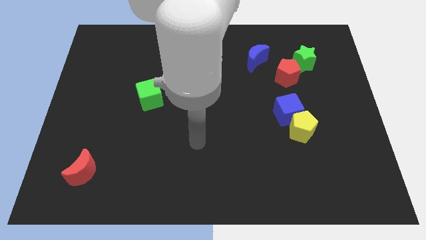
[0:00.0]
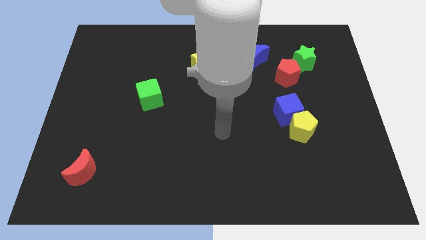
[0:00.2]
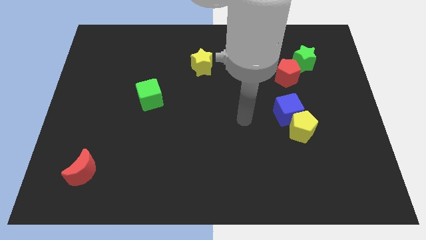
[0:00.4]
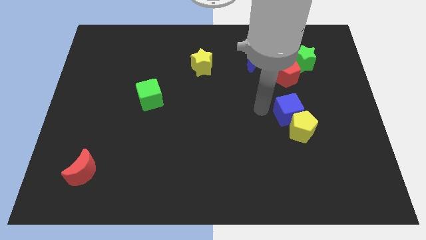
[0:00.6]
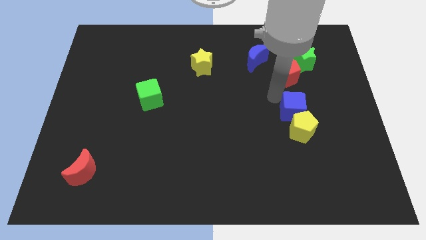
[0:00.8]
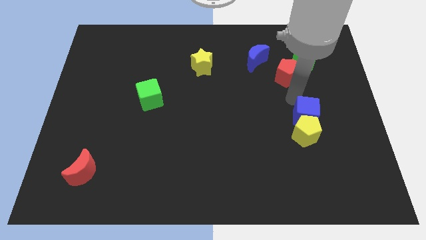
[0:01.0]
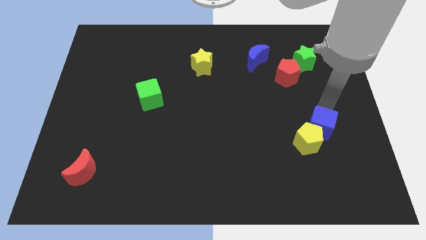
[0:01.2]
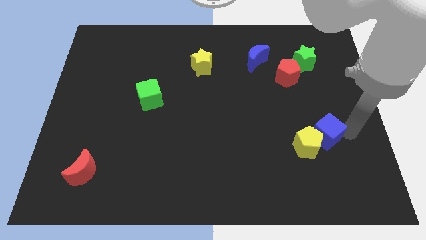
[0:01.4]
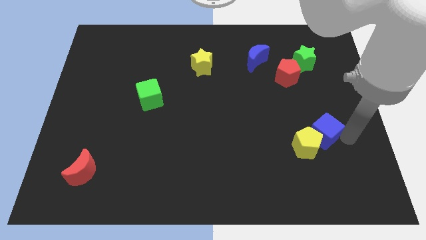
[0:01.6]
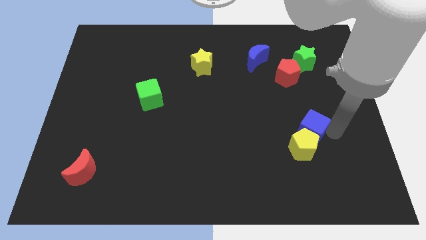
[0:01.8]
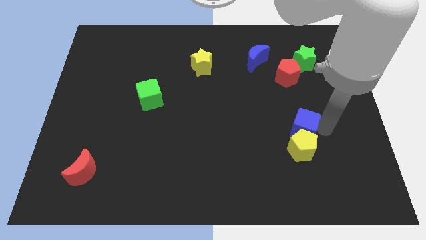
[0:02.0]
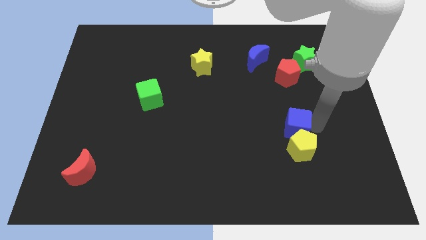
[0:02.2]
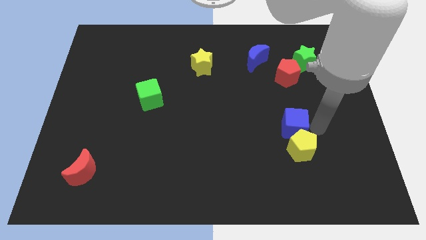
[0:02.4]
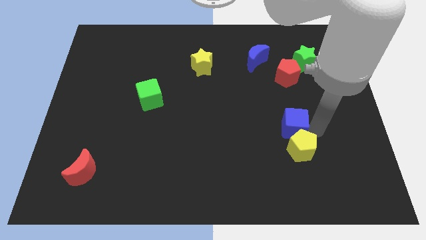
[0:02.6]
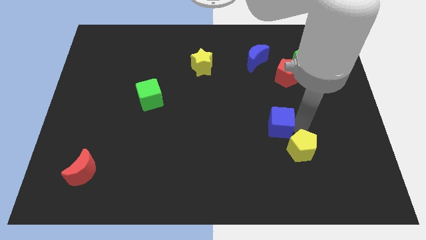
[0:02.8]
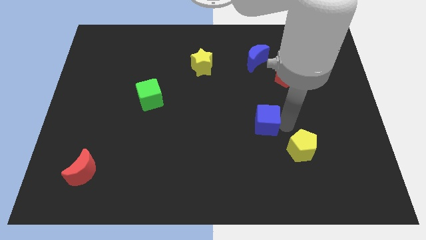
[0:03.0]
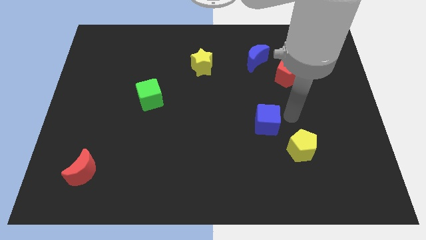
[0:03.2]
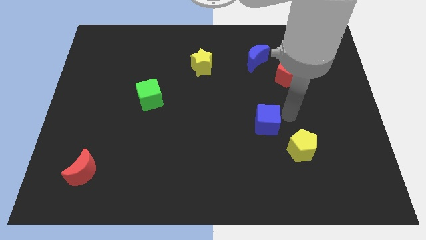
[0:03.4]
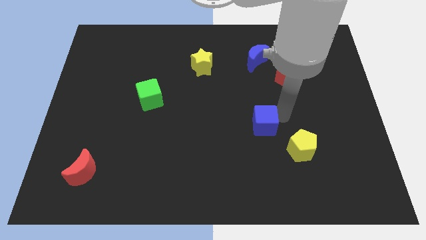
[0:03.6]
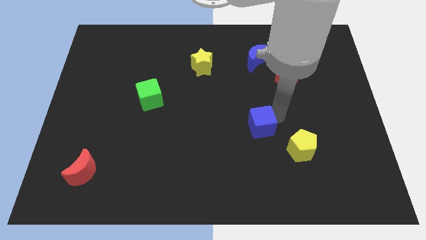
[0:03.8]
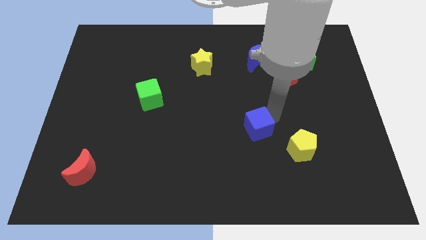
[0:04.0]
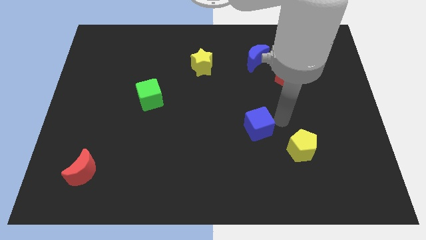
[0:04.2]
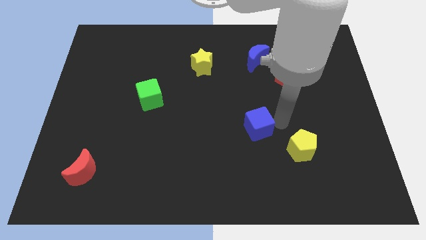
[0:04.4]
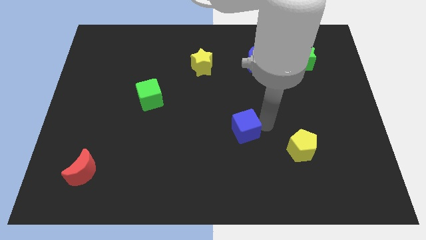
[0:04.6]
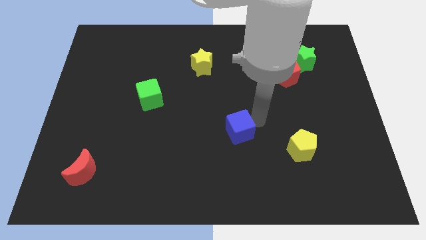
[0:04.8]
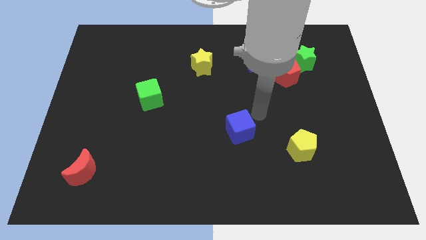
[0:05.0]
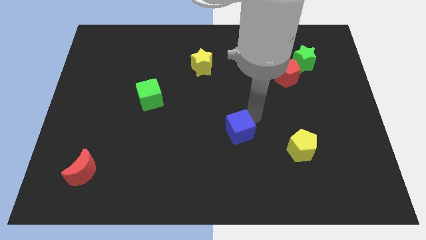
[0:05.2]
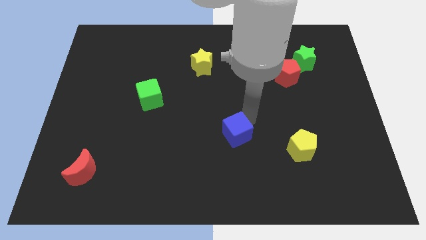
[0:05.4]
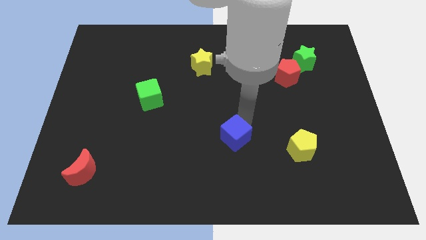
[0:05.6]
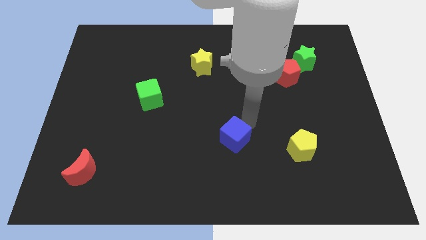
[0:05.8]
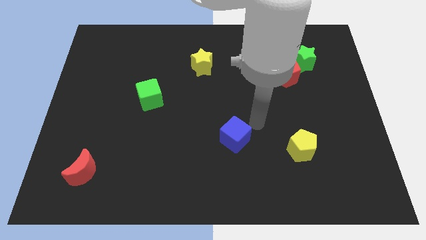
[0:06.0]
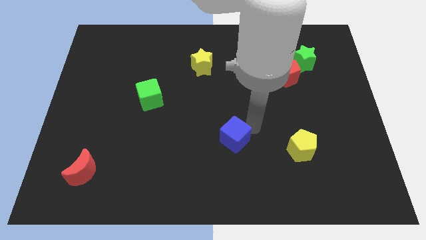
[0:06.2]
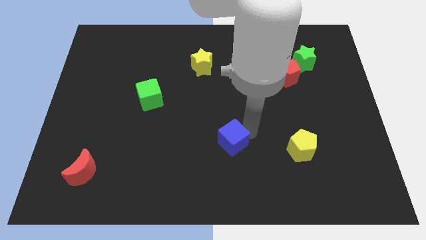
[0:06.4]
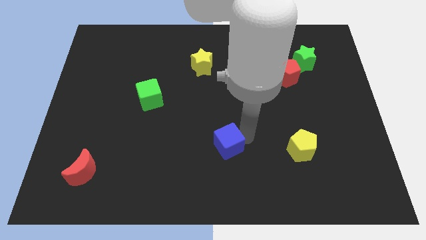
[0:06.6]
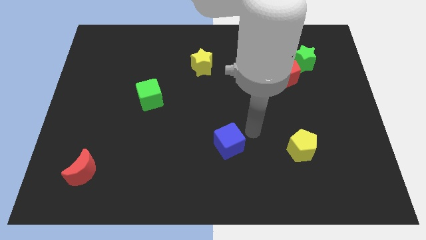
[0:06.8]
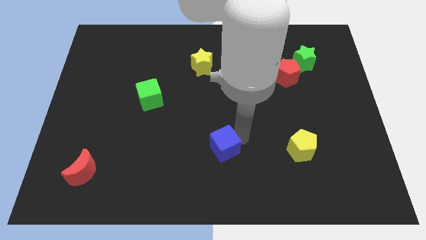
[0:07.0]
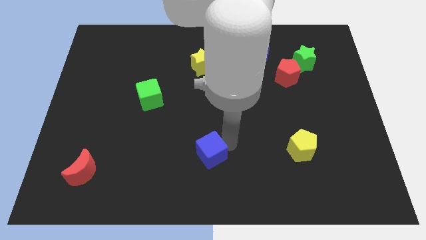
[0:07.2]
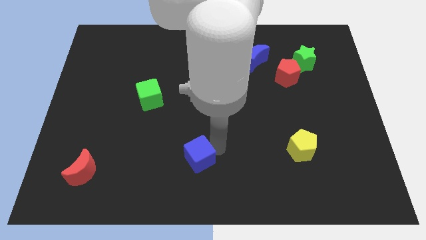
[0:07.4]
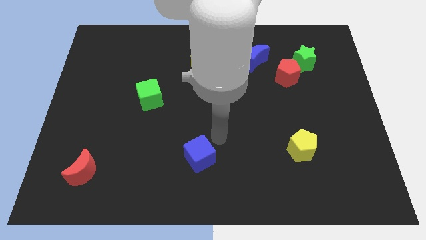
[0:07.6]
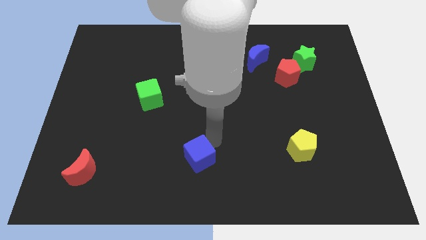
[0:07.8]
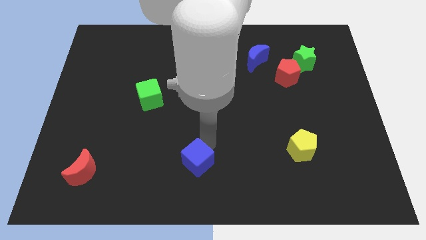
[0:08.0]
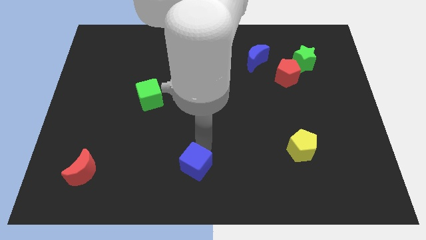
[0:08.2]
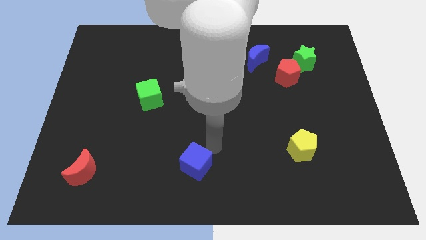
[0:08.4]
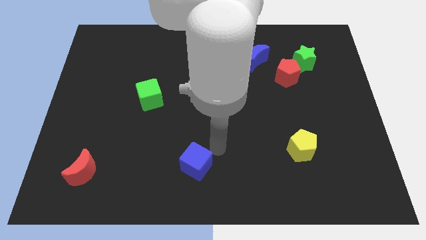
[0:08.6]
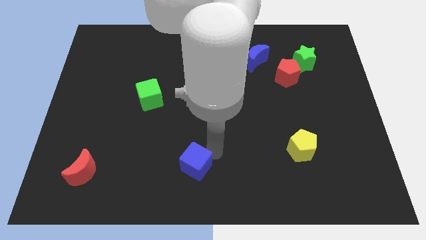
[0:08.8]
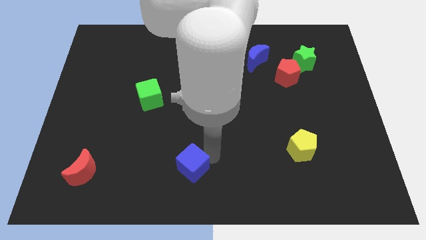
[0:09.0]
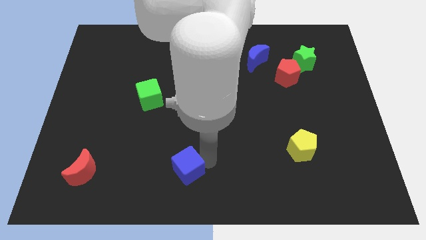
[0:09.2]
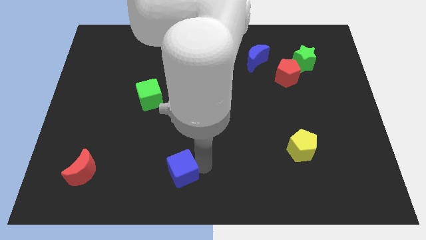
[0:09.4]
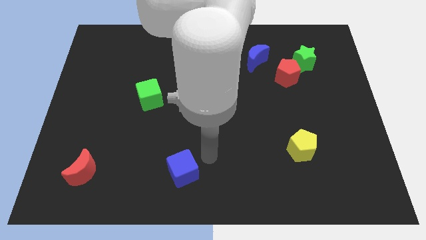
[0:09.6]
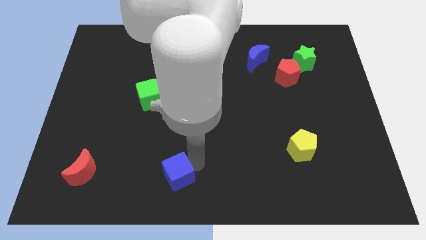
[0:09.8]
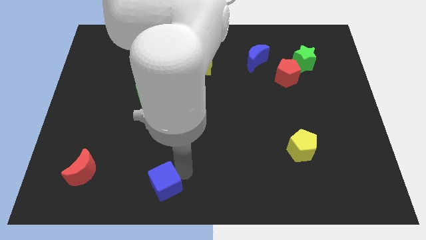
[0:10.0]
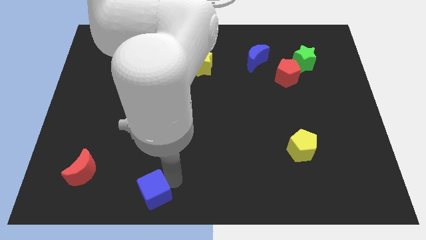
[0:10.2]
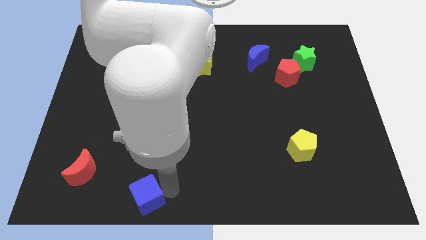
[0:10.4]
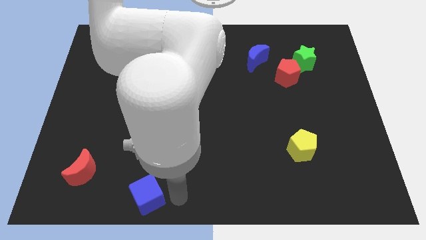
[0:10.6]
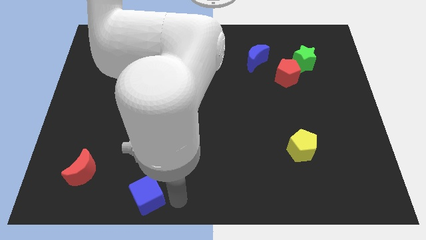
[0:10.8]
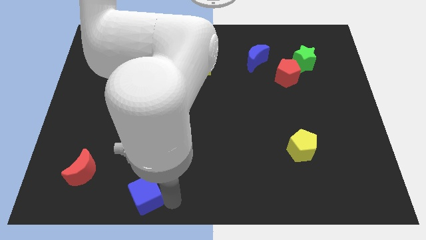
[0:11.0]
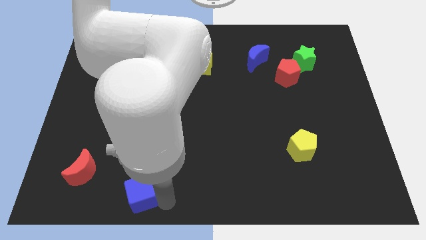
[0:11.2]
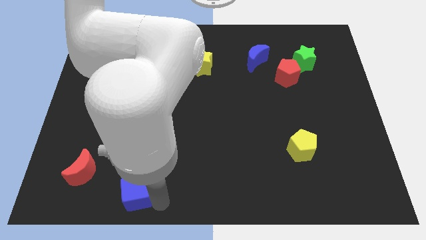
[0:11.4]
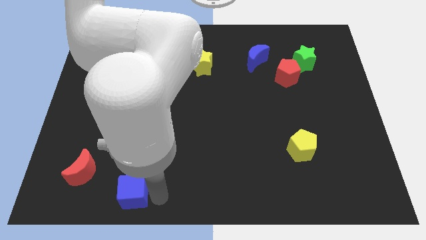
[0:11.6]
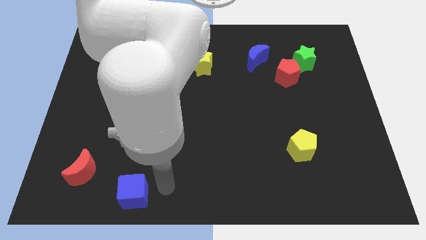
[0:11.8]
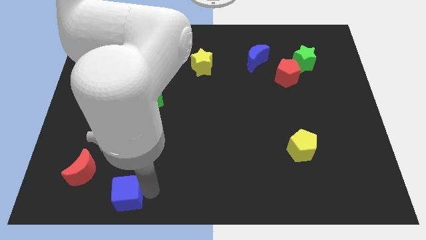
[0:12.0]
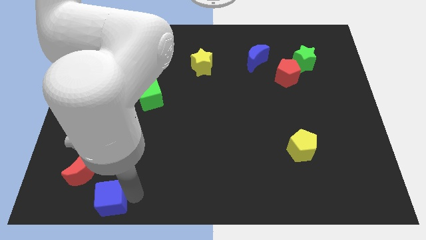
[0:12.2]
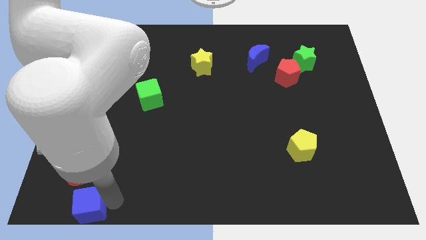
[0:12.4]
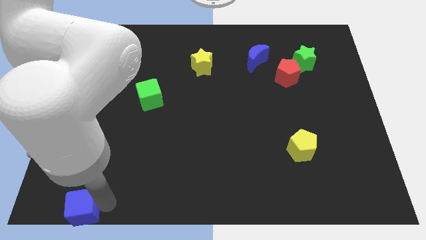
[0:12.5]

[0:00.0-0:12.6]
push the blue cube to the bottom left corner
